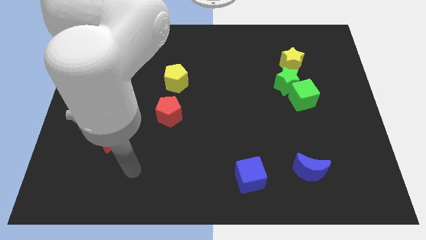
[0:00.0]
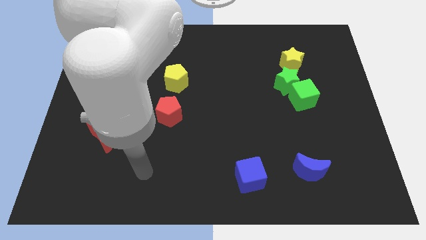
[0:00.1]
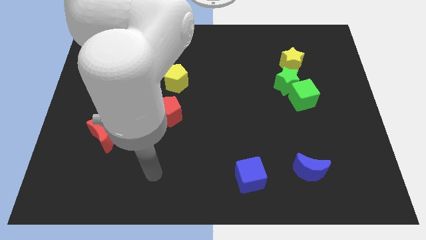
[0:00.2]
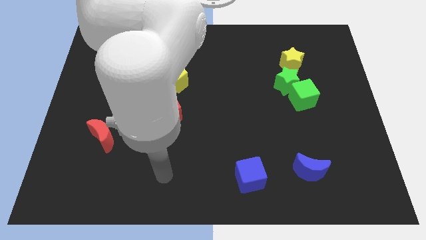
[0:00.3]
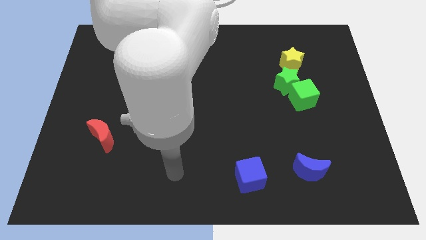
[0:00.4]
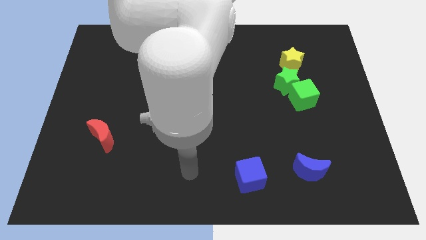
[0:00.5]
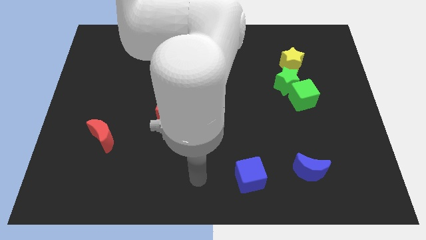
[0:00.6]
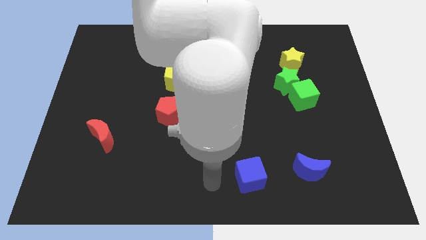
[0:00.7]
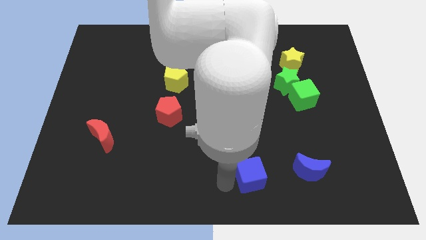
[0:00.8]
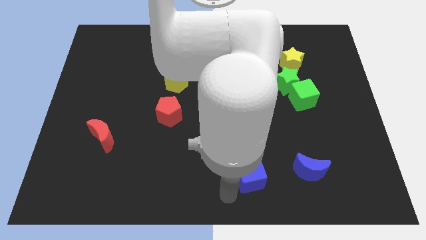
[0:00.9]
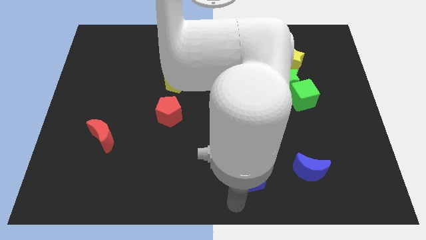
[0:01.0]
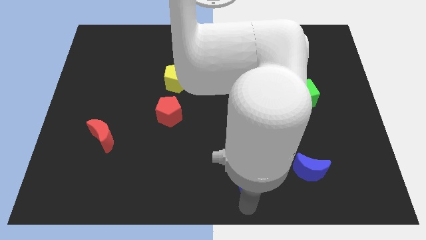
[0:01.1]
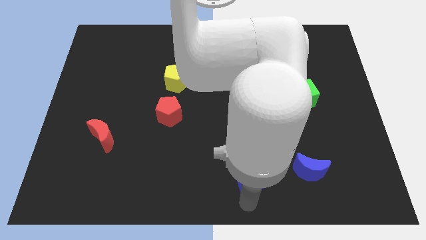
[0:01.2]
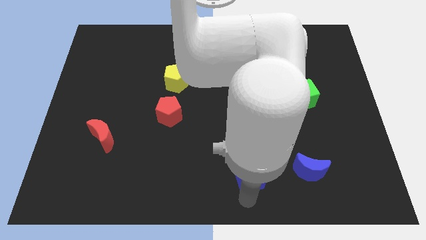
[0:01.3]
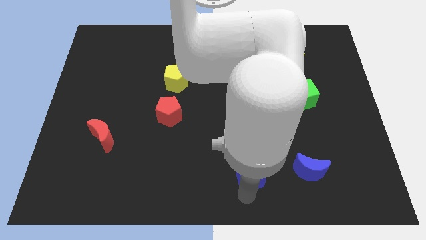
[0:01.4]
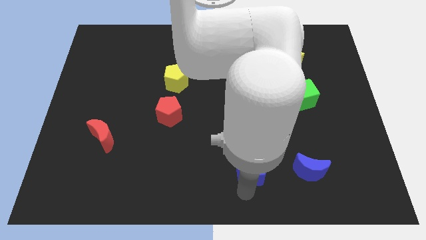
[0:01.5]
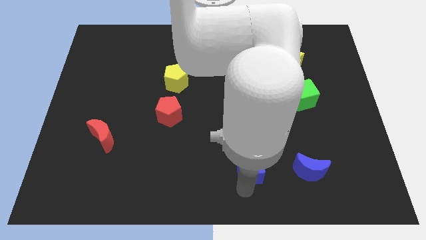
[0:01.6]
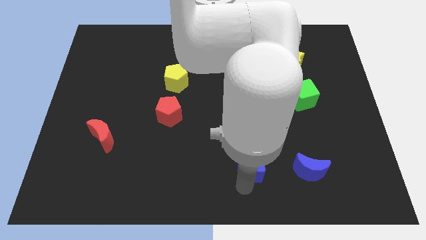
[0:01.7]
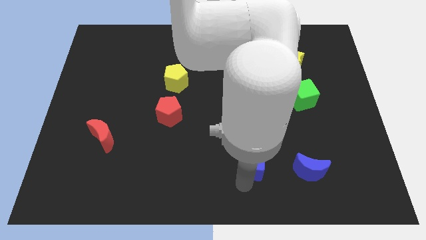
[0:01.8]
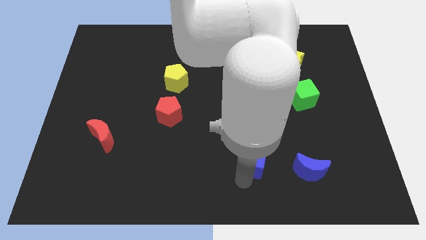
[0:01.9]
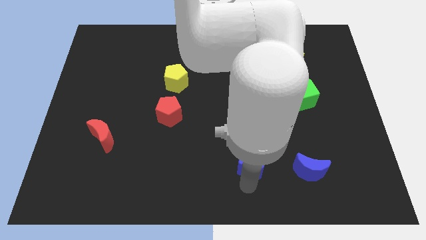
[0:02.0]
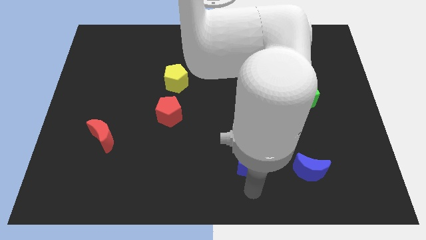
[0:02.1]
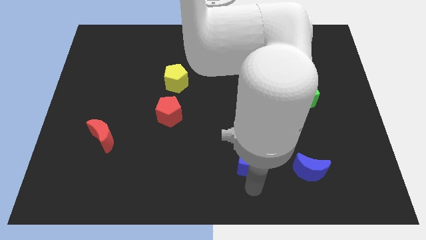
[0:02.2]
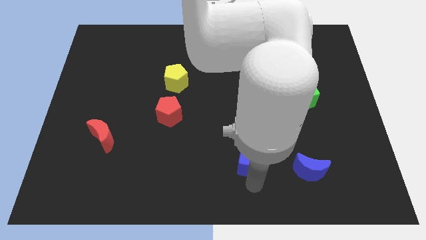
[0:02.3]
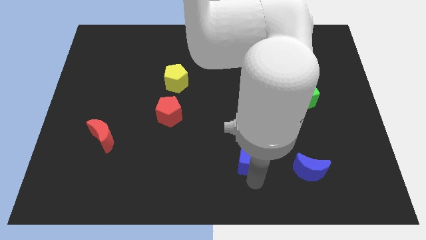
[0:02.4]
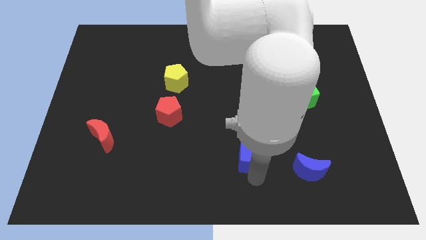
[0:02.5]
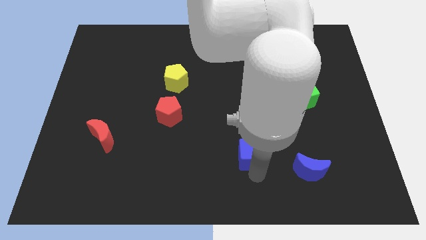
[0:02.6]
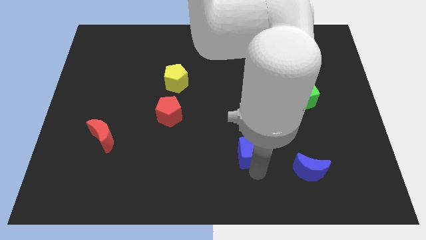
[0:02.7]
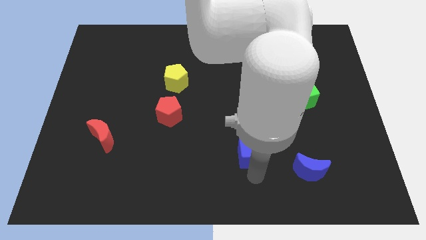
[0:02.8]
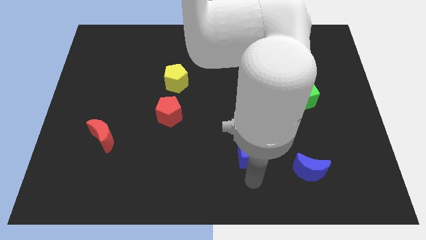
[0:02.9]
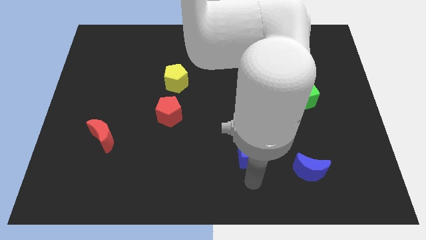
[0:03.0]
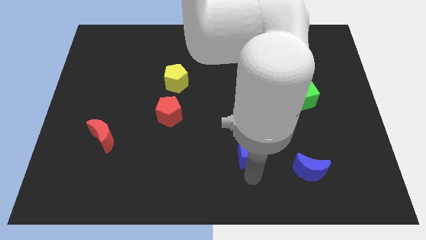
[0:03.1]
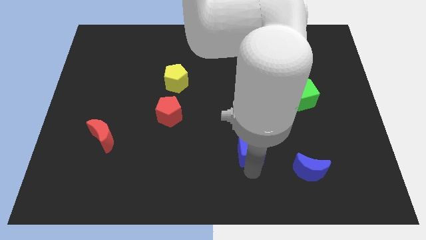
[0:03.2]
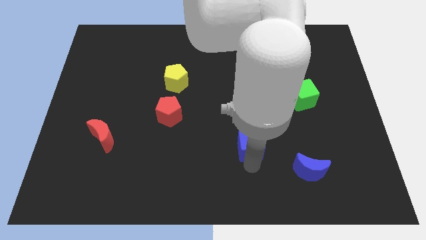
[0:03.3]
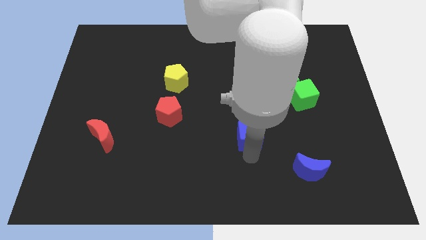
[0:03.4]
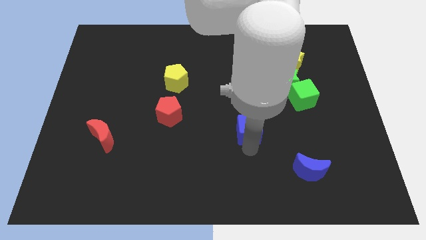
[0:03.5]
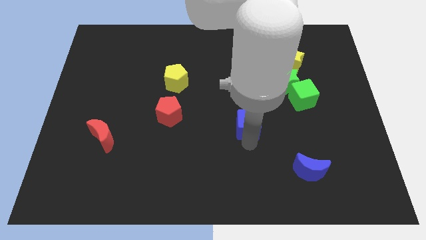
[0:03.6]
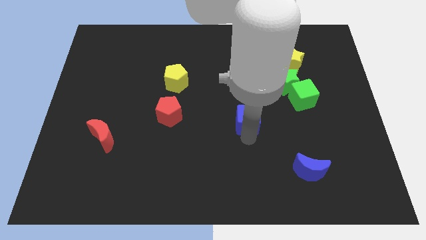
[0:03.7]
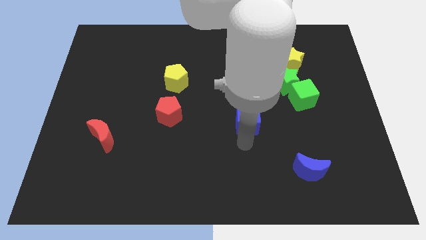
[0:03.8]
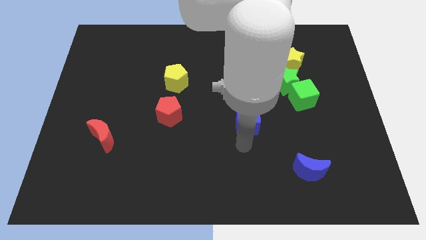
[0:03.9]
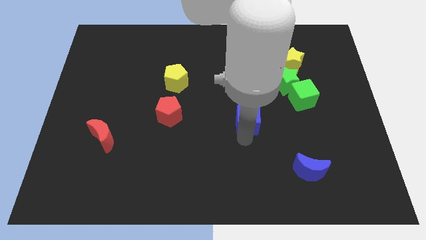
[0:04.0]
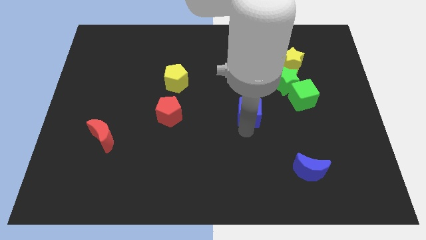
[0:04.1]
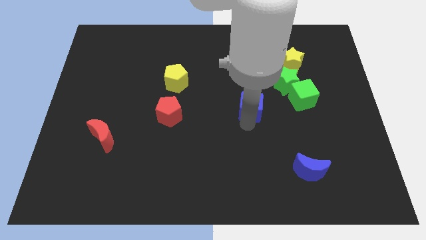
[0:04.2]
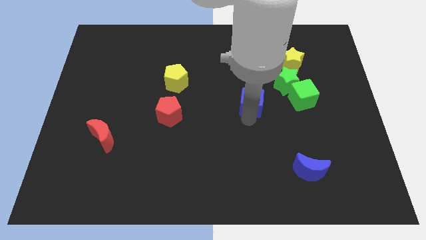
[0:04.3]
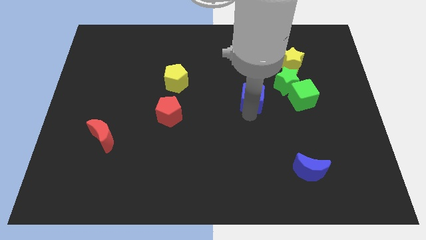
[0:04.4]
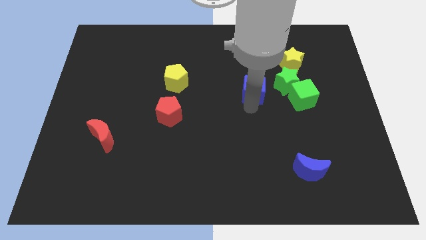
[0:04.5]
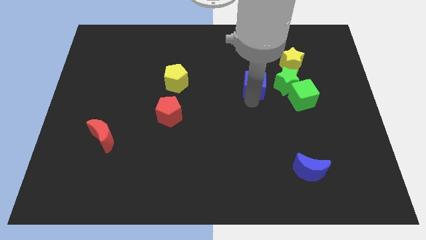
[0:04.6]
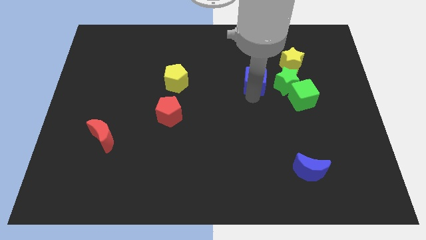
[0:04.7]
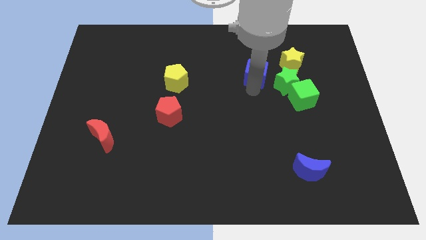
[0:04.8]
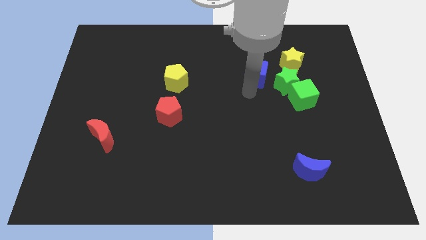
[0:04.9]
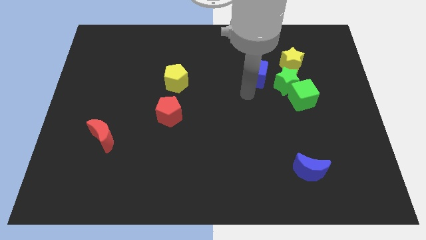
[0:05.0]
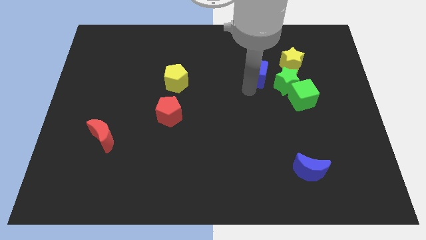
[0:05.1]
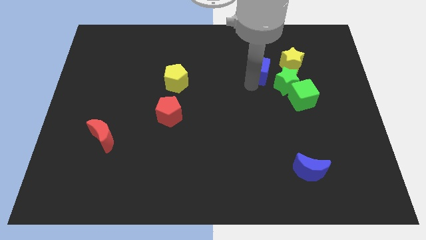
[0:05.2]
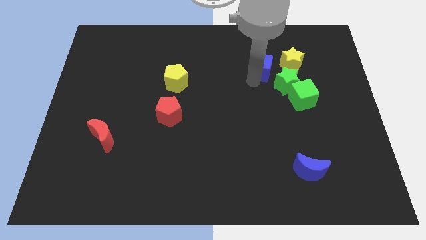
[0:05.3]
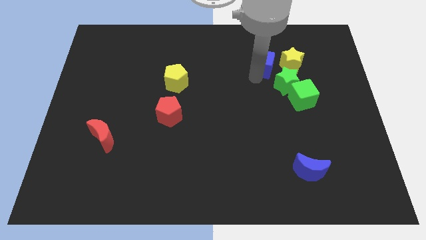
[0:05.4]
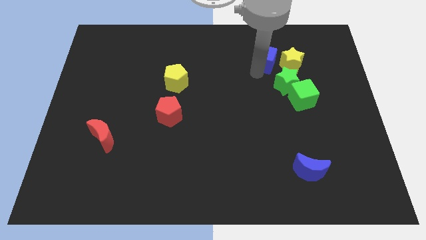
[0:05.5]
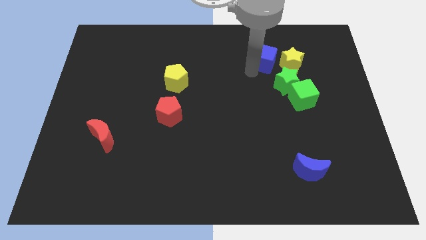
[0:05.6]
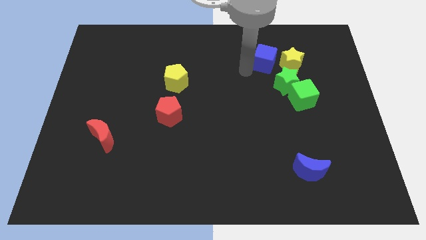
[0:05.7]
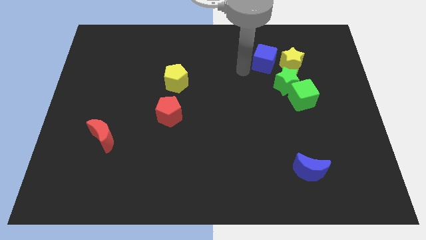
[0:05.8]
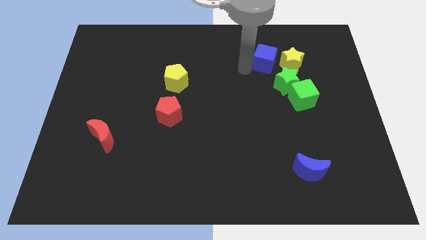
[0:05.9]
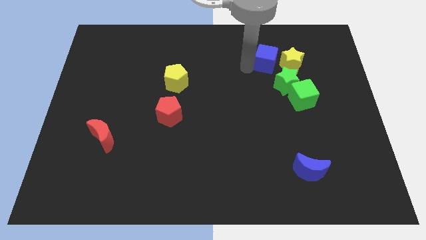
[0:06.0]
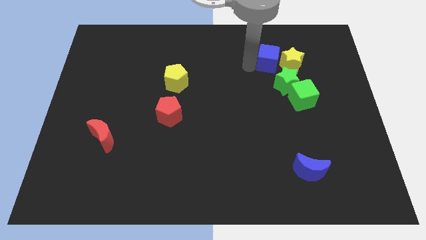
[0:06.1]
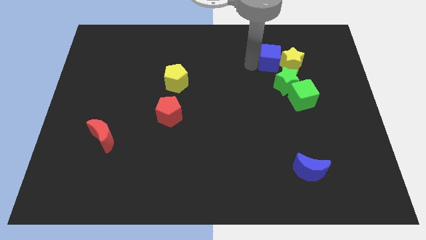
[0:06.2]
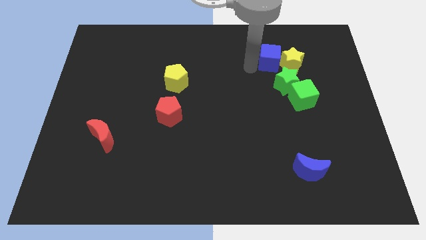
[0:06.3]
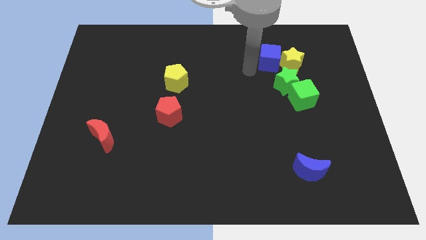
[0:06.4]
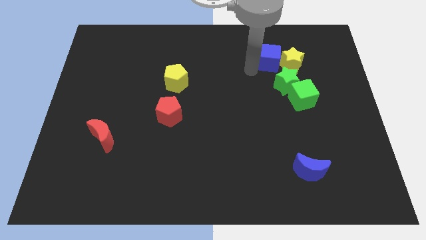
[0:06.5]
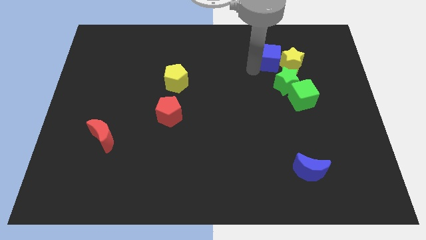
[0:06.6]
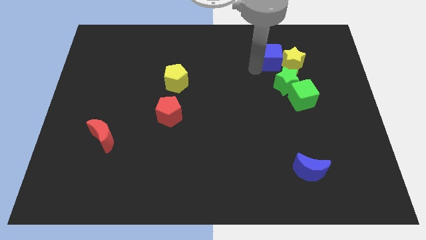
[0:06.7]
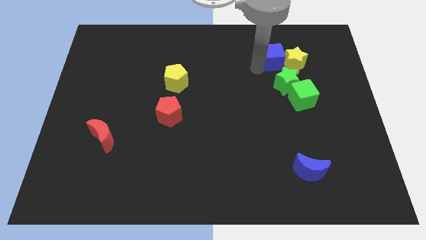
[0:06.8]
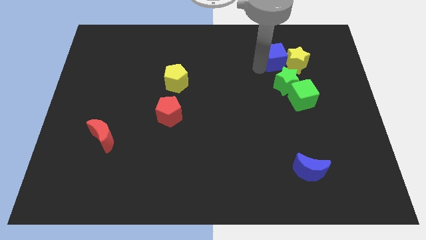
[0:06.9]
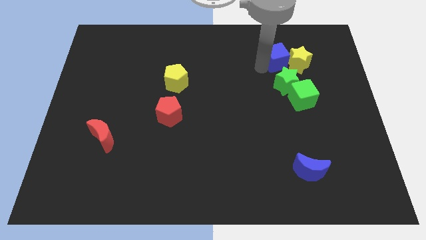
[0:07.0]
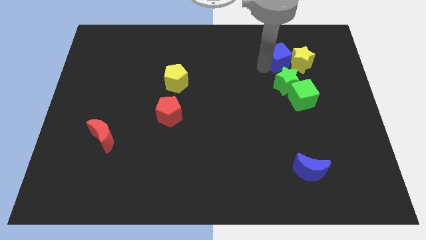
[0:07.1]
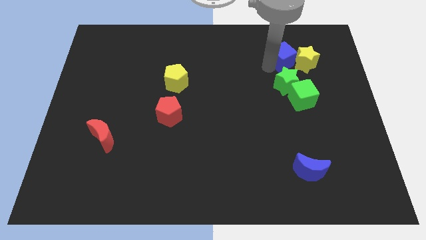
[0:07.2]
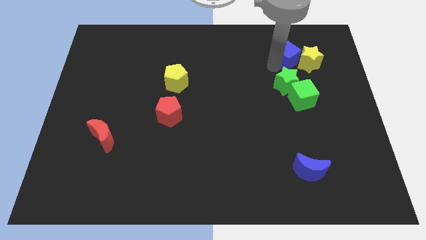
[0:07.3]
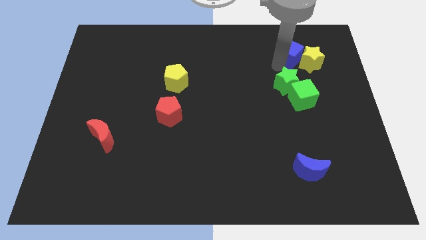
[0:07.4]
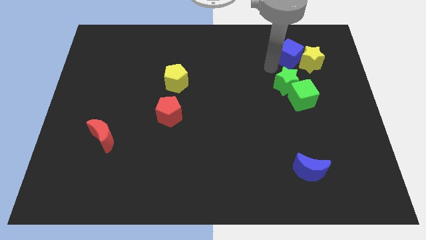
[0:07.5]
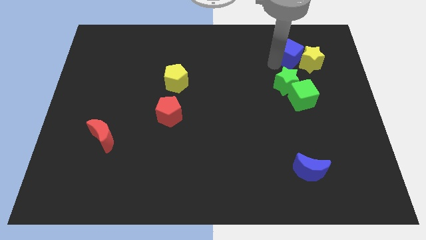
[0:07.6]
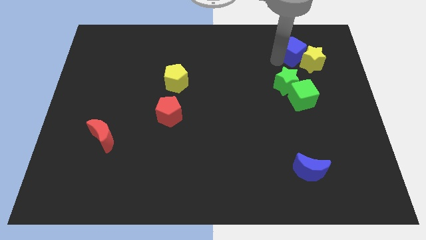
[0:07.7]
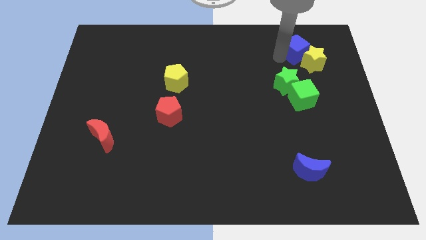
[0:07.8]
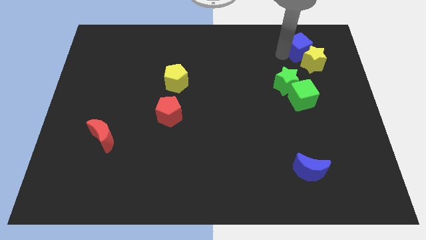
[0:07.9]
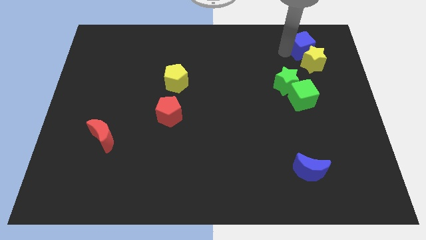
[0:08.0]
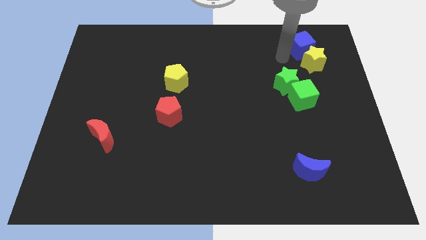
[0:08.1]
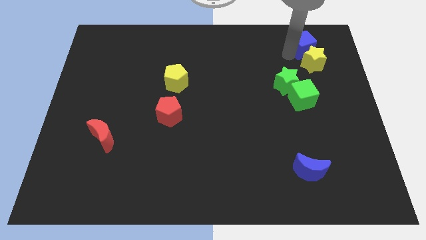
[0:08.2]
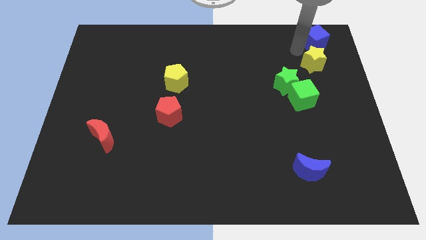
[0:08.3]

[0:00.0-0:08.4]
move the blue cube to the top right
